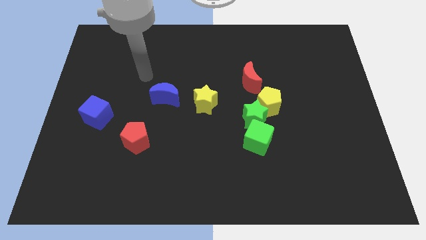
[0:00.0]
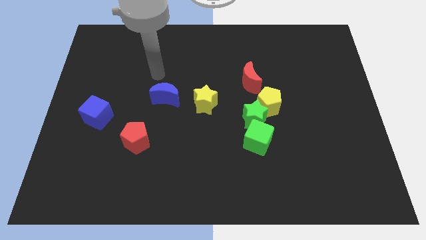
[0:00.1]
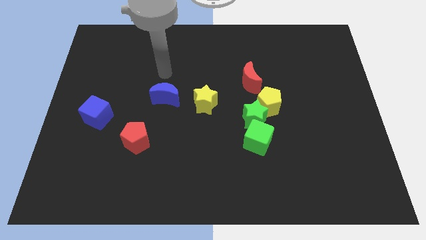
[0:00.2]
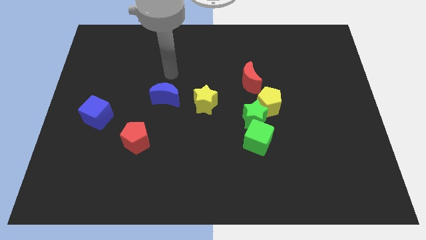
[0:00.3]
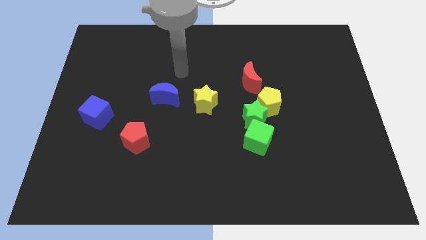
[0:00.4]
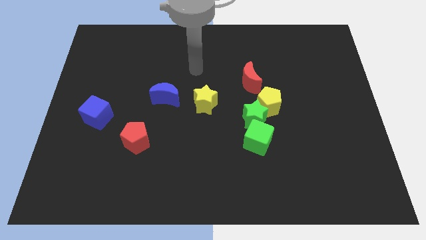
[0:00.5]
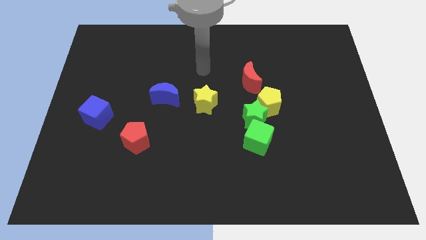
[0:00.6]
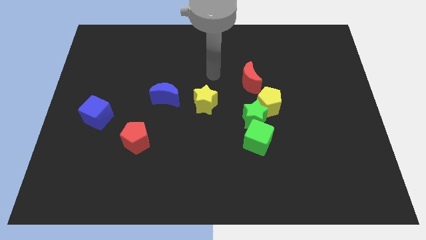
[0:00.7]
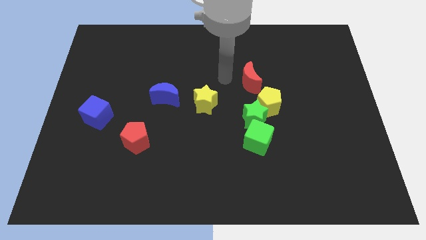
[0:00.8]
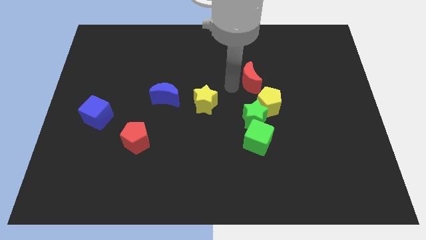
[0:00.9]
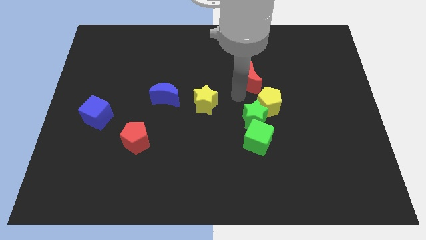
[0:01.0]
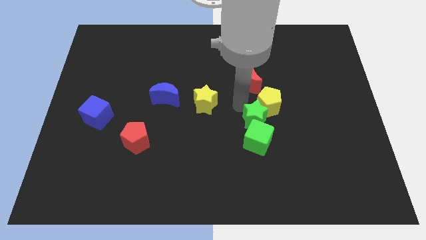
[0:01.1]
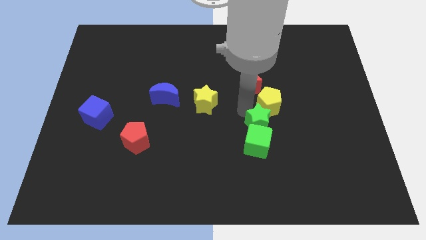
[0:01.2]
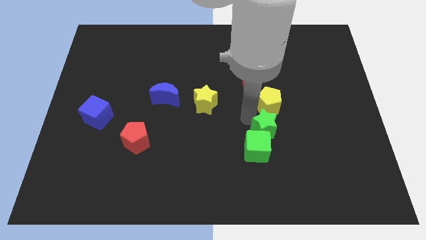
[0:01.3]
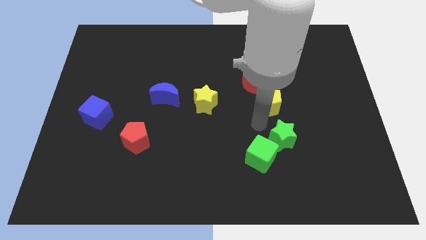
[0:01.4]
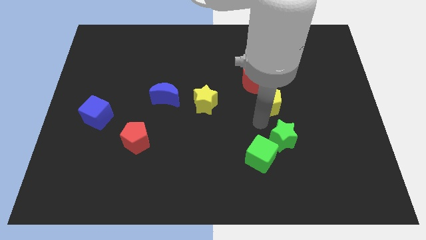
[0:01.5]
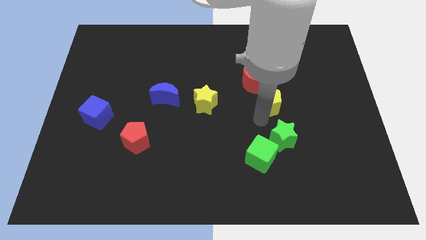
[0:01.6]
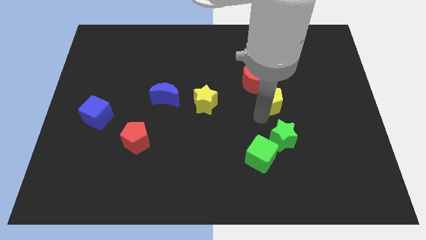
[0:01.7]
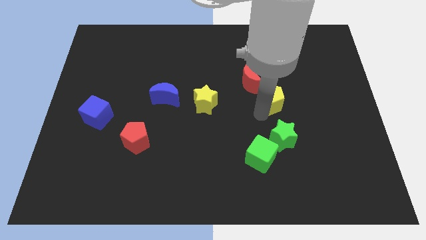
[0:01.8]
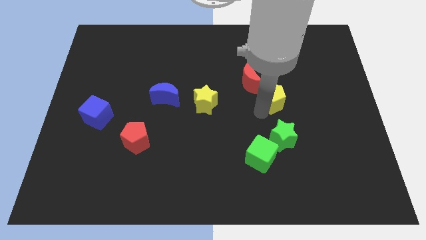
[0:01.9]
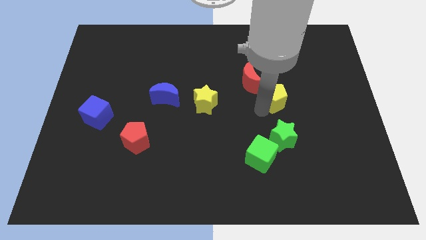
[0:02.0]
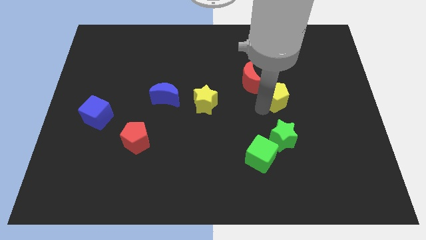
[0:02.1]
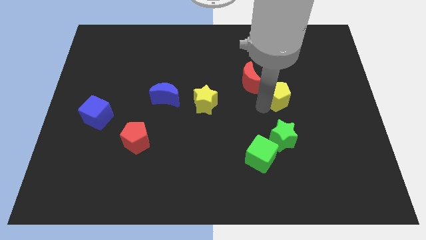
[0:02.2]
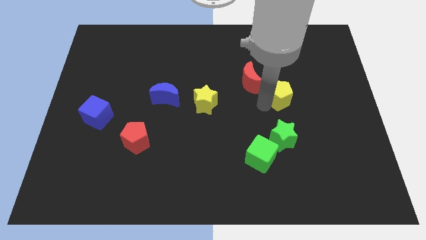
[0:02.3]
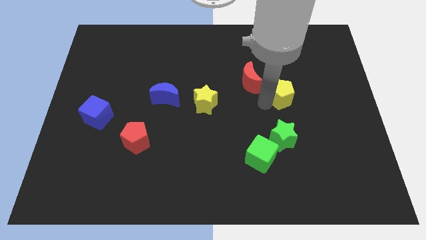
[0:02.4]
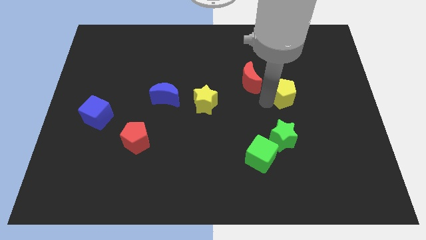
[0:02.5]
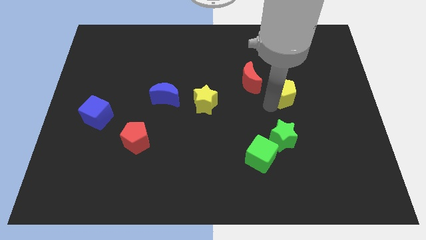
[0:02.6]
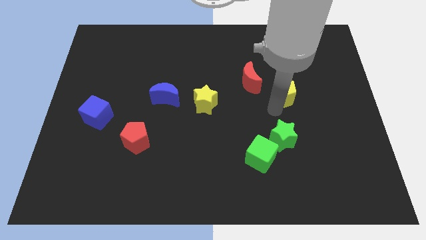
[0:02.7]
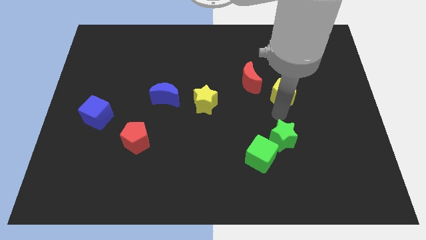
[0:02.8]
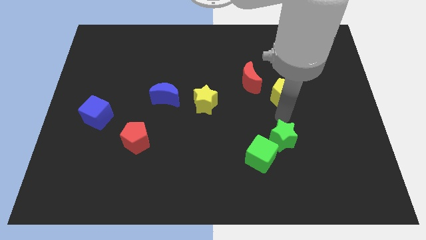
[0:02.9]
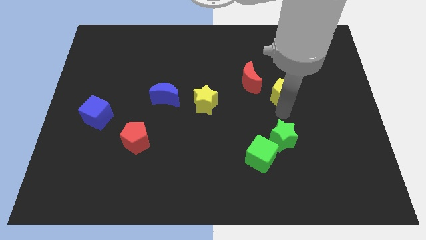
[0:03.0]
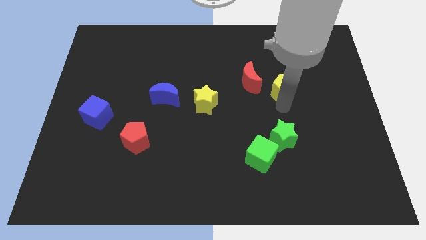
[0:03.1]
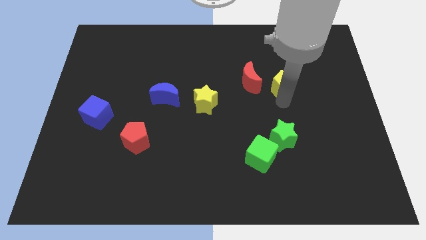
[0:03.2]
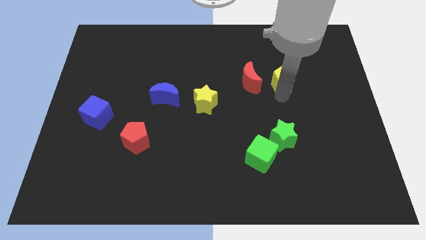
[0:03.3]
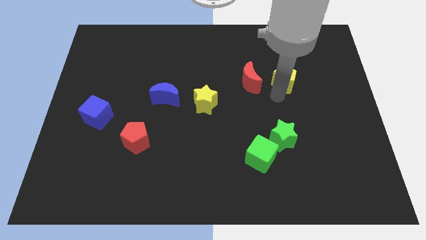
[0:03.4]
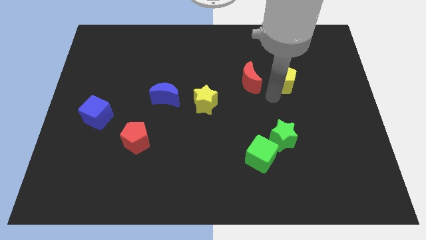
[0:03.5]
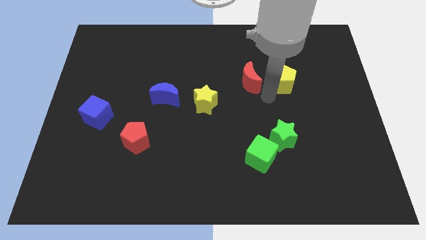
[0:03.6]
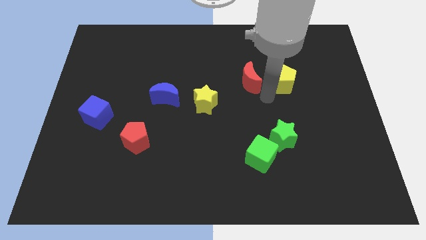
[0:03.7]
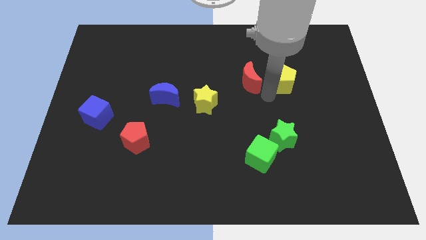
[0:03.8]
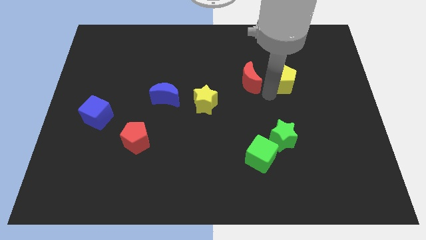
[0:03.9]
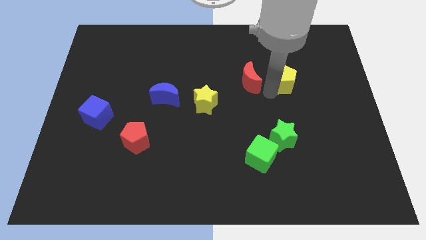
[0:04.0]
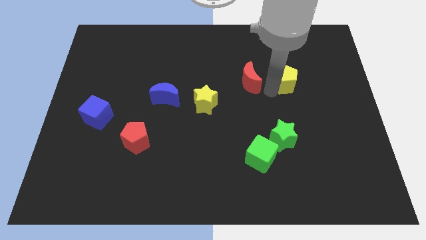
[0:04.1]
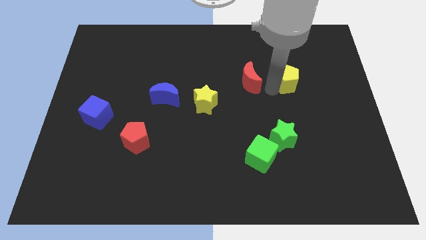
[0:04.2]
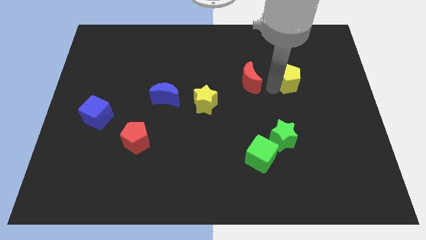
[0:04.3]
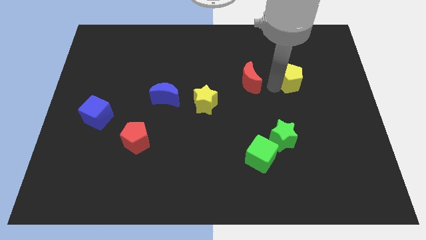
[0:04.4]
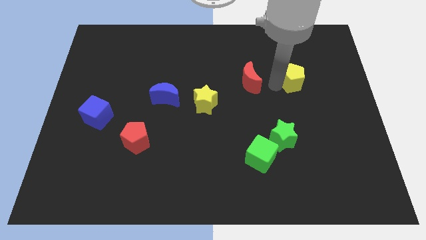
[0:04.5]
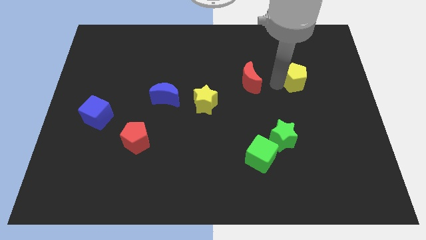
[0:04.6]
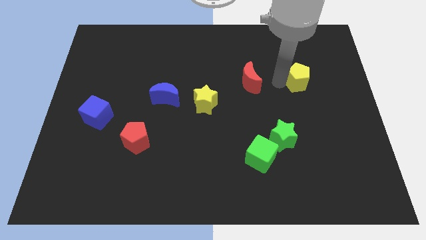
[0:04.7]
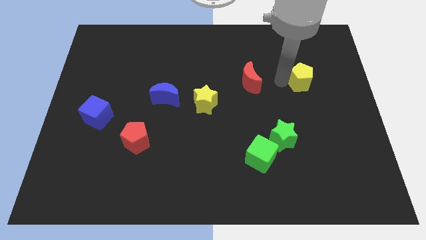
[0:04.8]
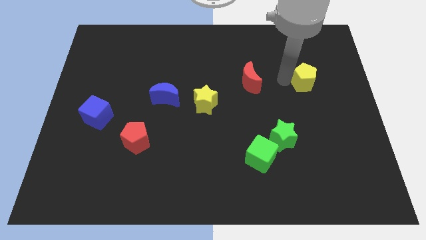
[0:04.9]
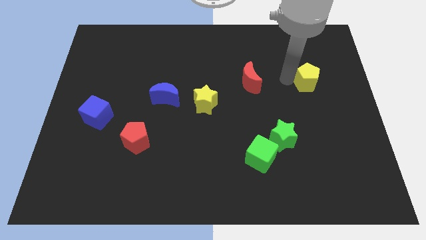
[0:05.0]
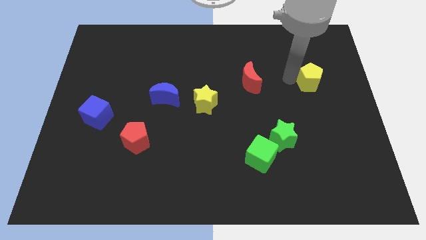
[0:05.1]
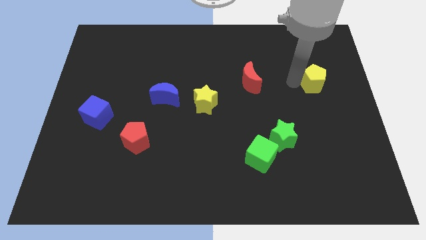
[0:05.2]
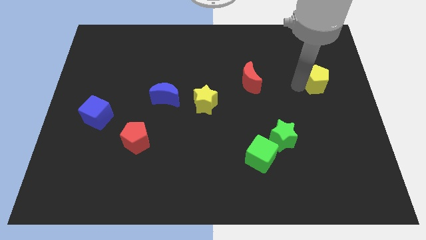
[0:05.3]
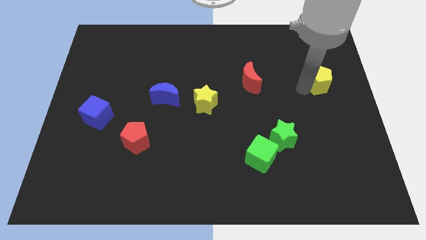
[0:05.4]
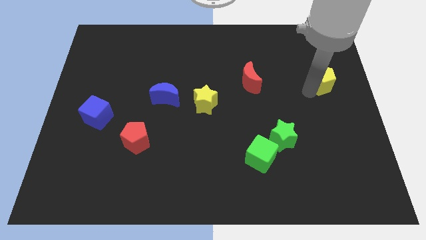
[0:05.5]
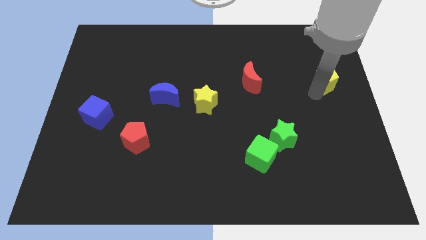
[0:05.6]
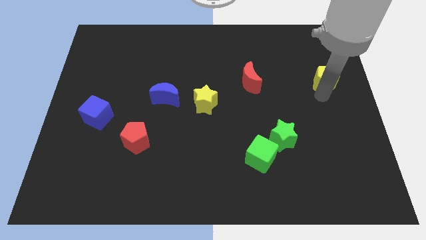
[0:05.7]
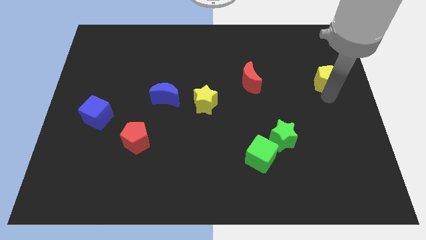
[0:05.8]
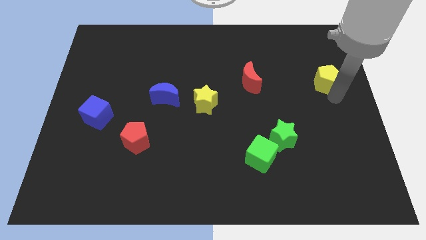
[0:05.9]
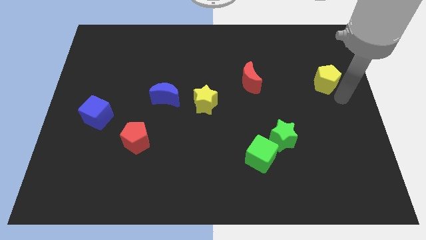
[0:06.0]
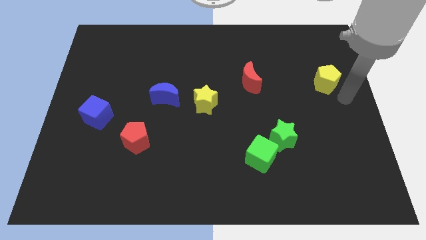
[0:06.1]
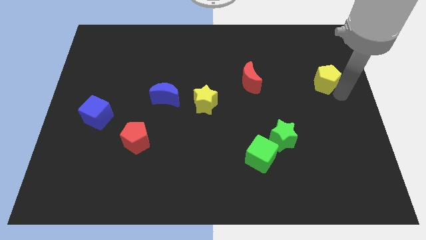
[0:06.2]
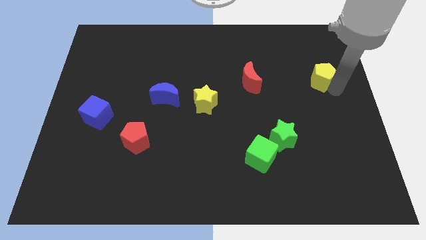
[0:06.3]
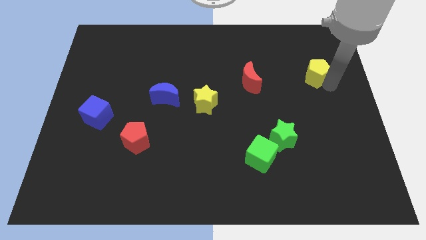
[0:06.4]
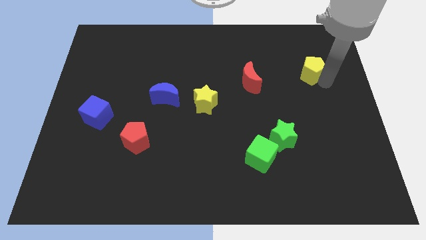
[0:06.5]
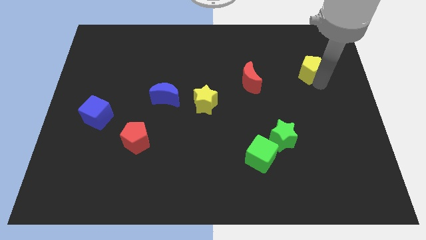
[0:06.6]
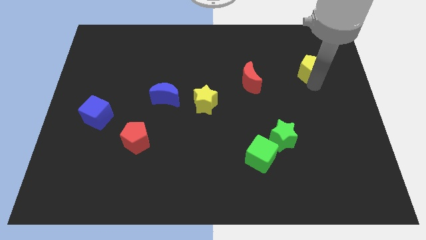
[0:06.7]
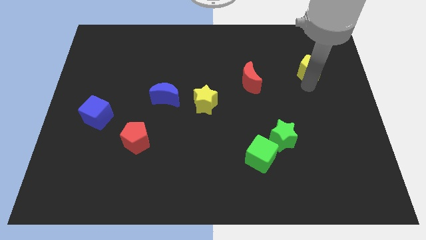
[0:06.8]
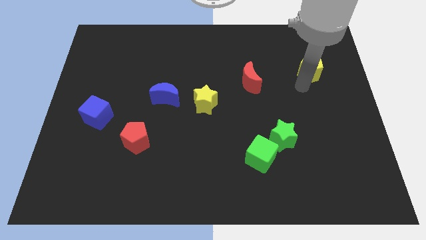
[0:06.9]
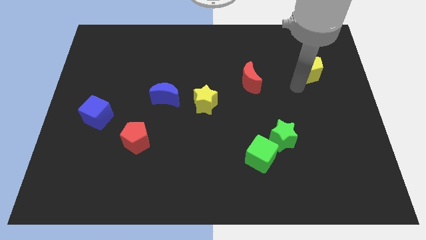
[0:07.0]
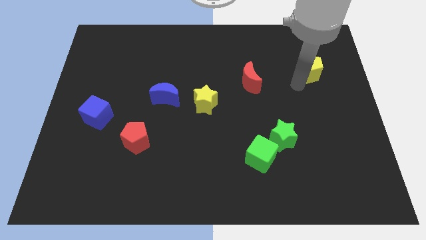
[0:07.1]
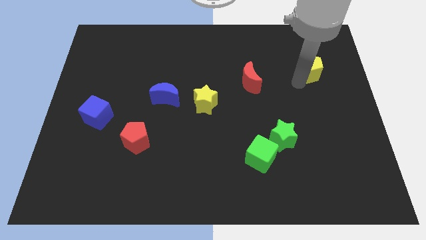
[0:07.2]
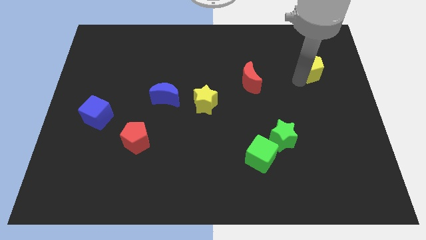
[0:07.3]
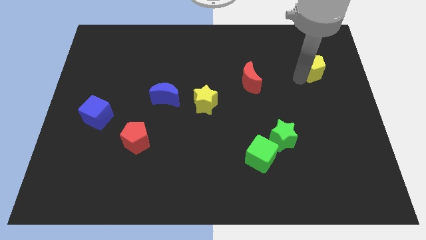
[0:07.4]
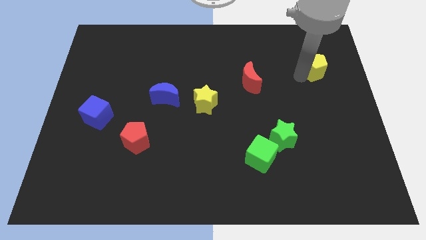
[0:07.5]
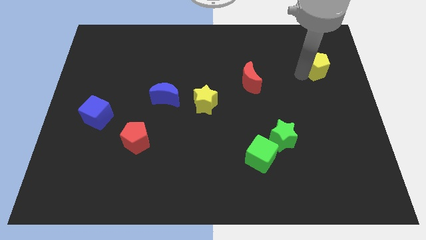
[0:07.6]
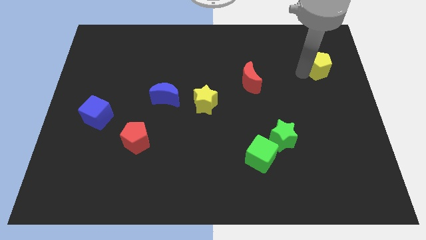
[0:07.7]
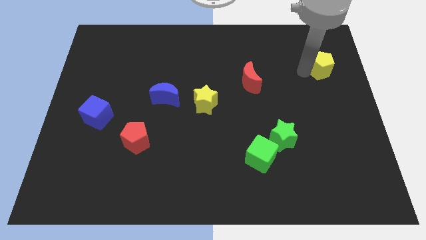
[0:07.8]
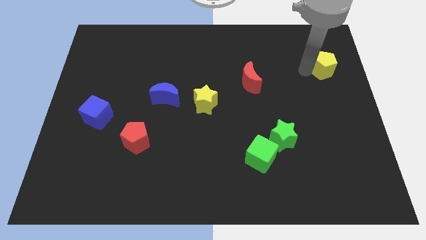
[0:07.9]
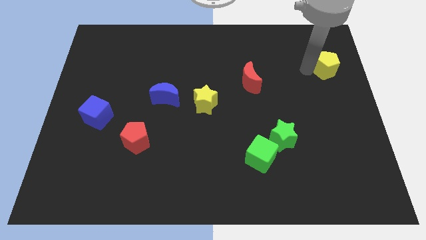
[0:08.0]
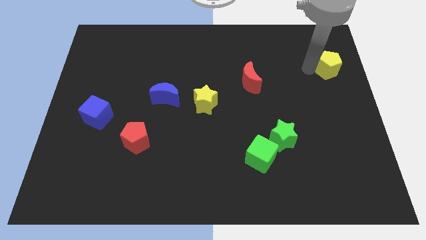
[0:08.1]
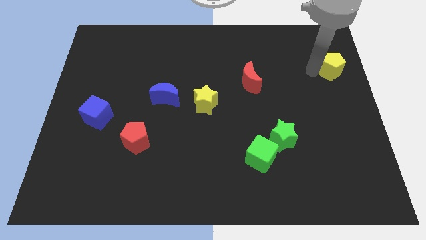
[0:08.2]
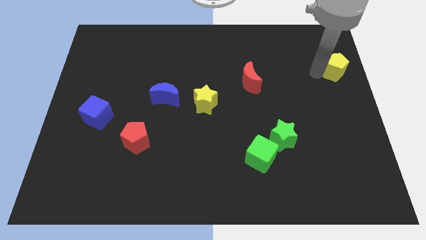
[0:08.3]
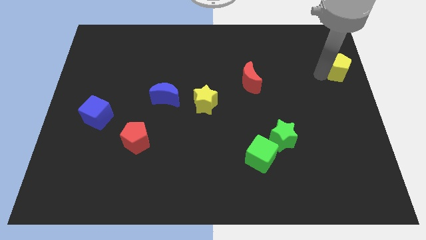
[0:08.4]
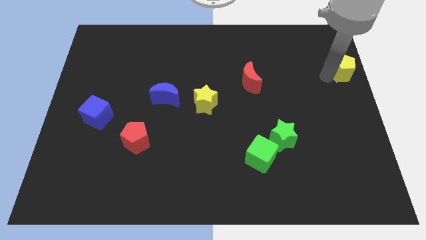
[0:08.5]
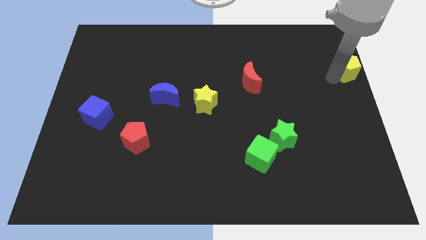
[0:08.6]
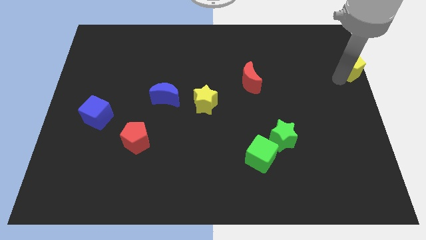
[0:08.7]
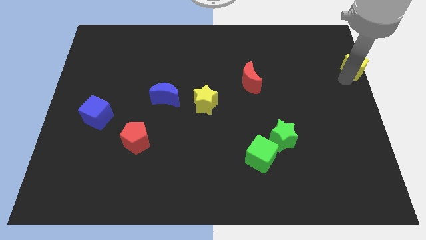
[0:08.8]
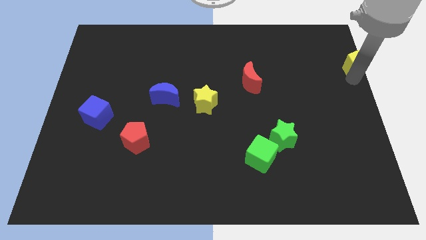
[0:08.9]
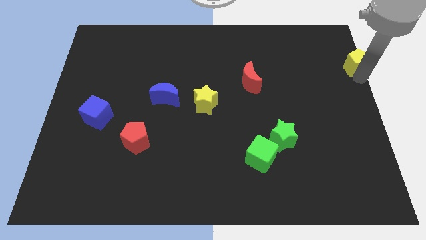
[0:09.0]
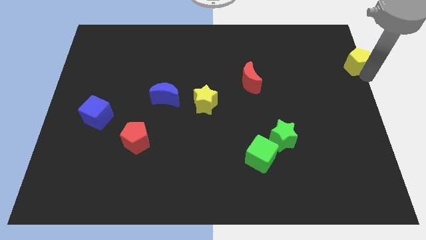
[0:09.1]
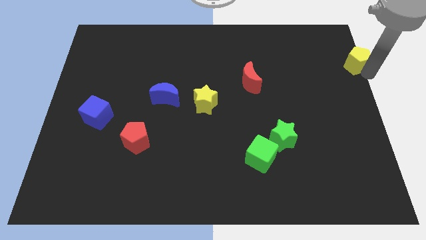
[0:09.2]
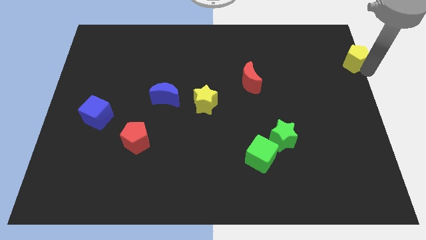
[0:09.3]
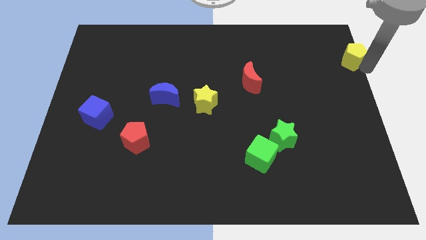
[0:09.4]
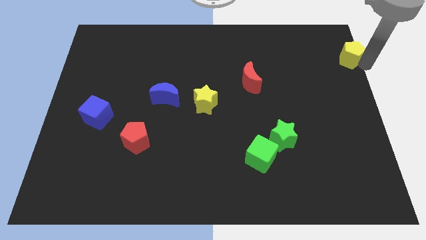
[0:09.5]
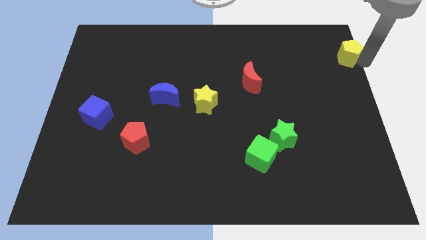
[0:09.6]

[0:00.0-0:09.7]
move the yellow pentagon to the top right corner
